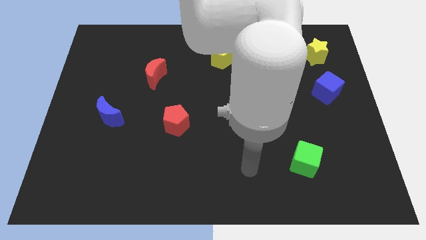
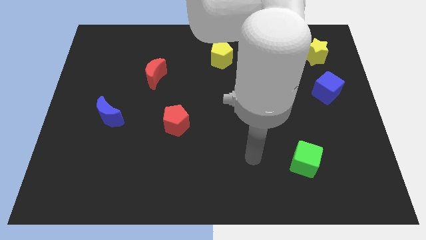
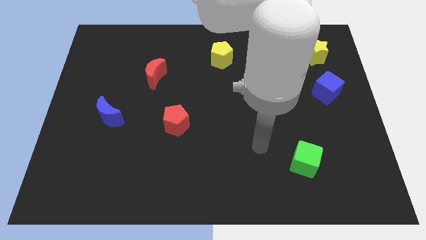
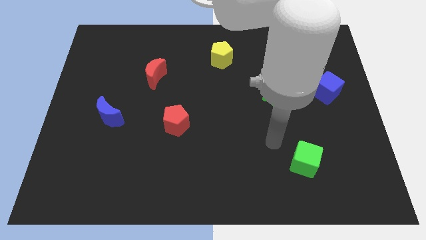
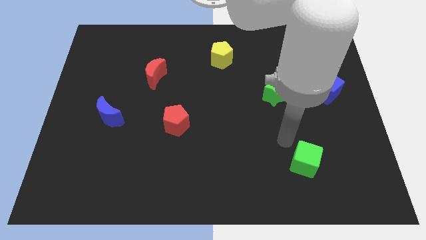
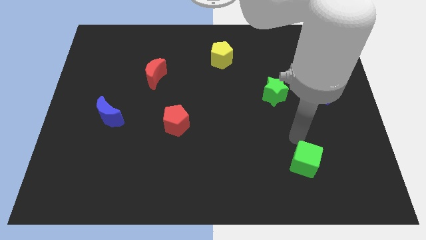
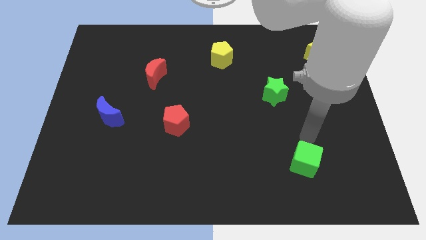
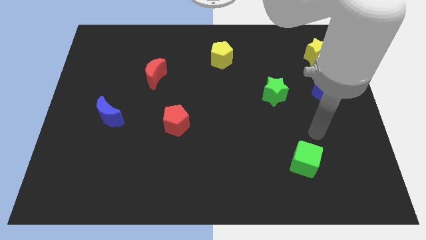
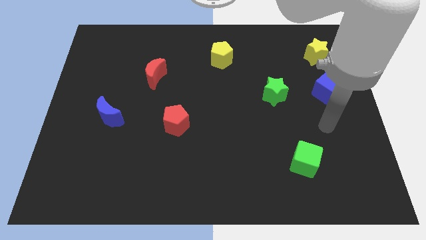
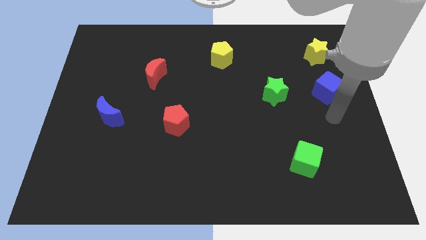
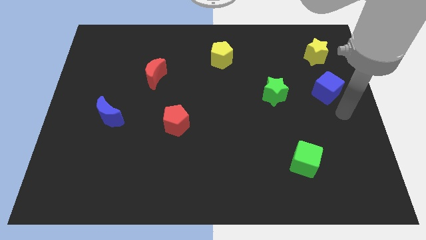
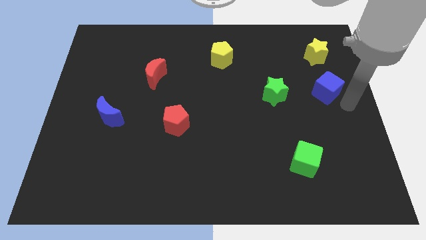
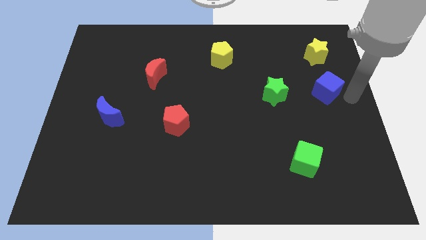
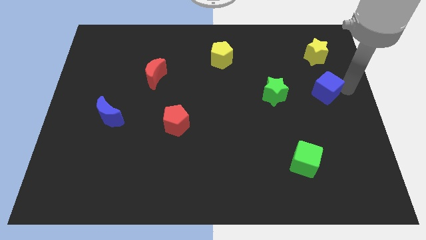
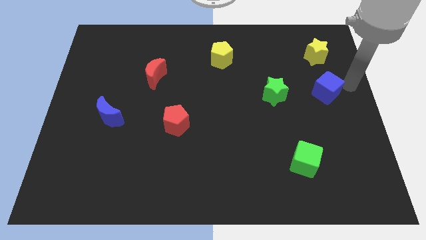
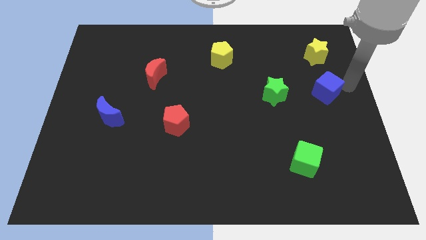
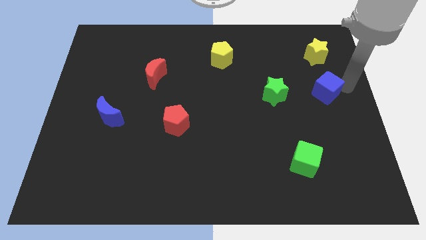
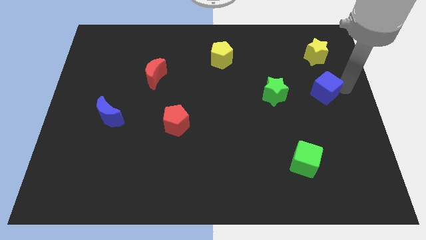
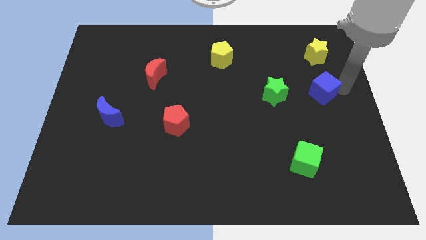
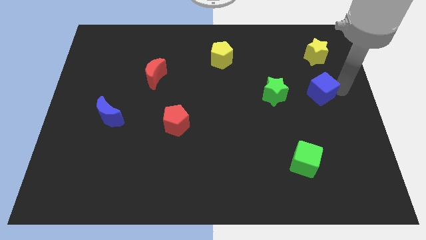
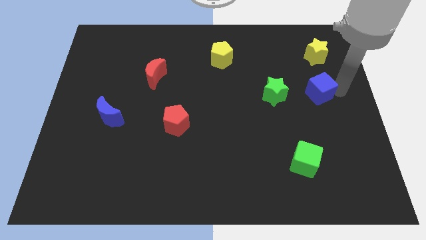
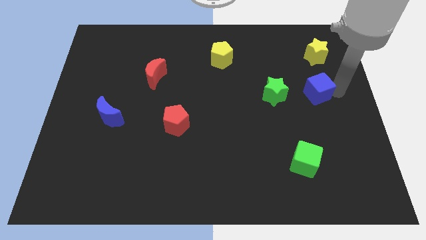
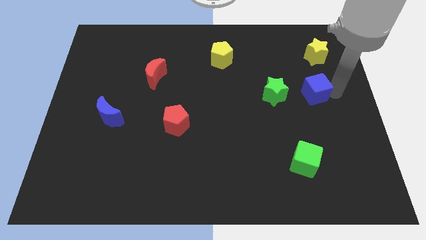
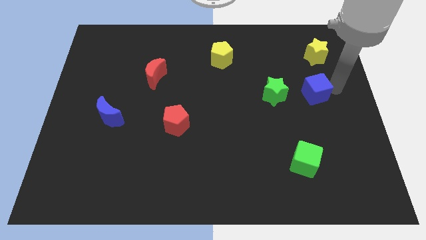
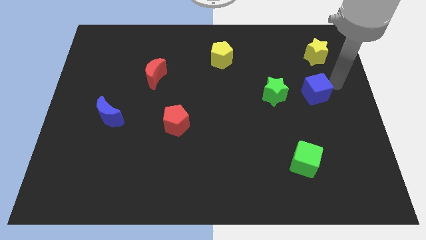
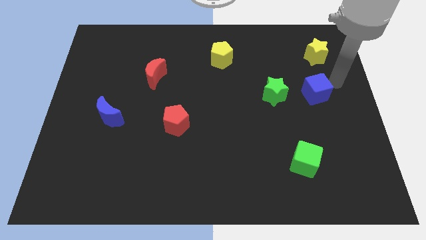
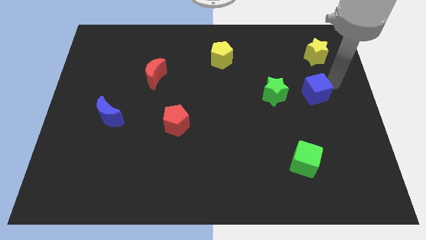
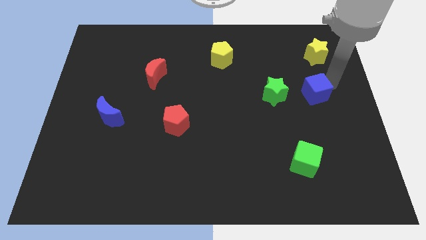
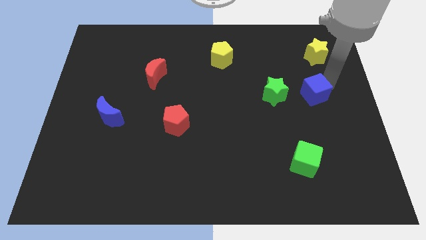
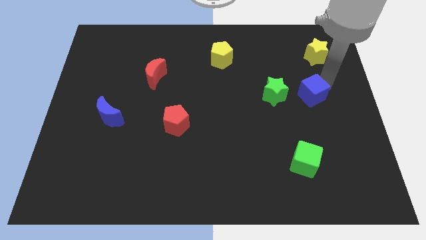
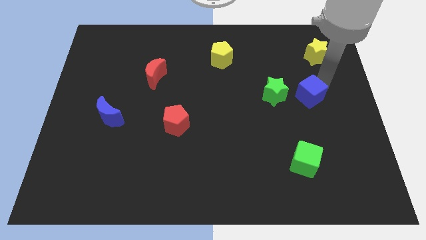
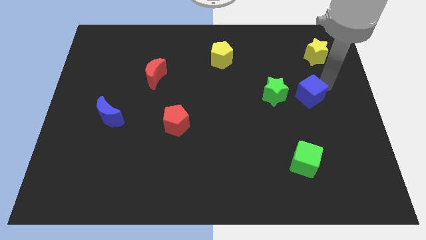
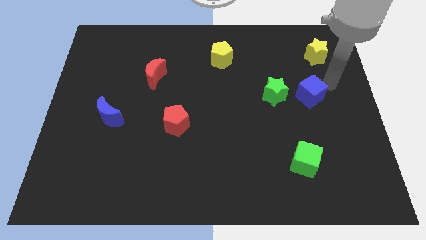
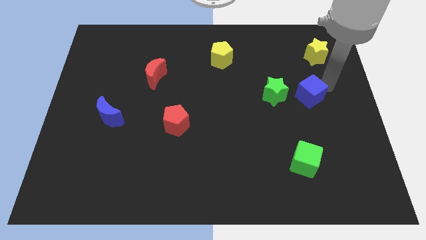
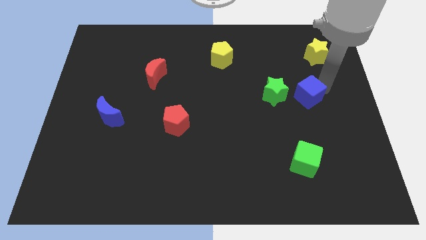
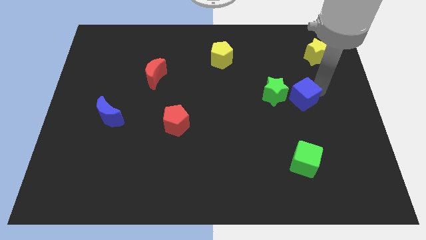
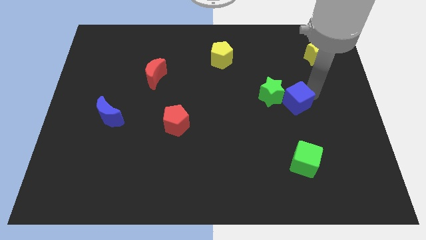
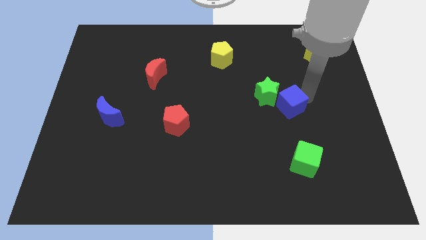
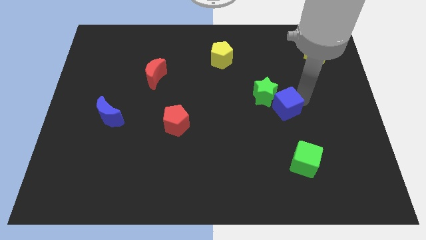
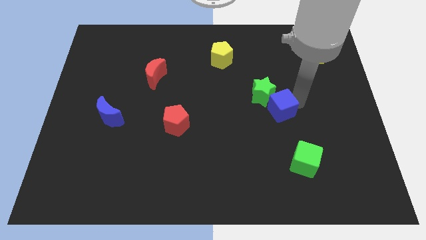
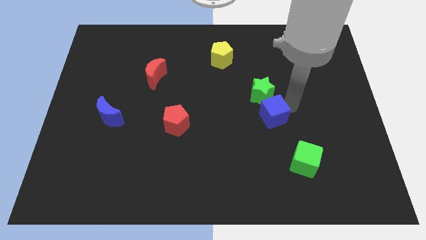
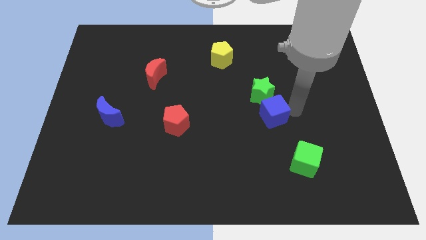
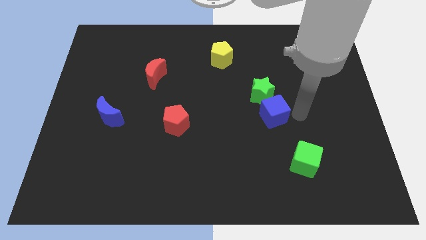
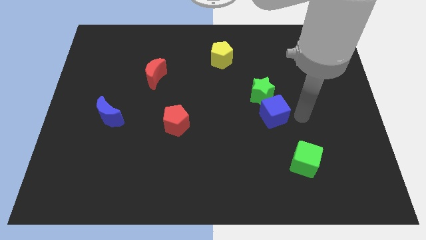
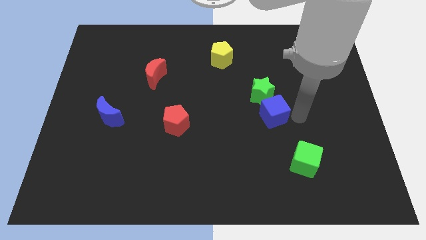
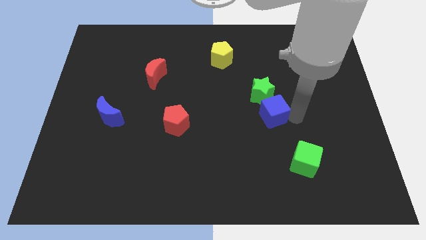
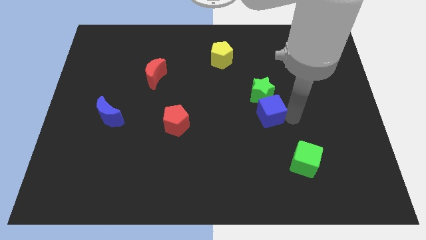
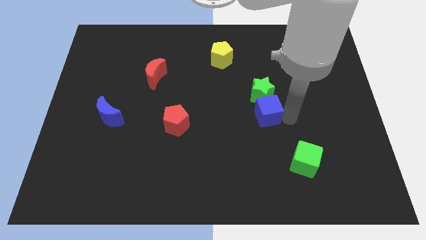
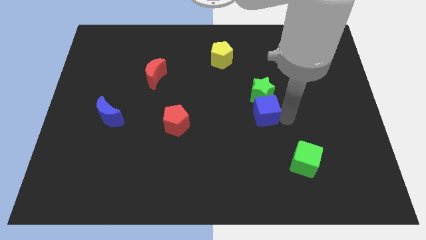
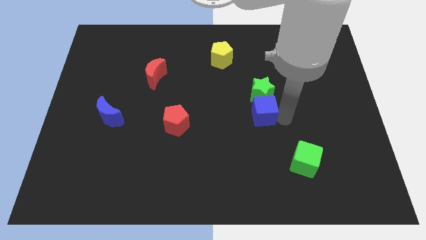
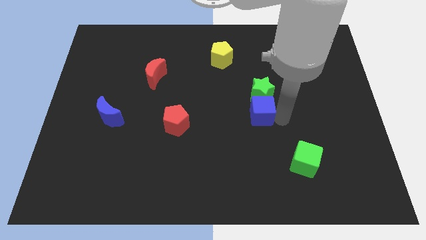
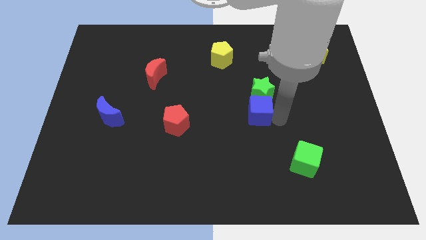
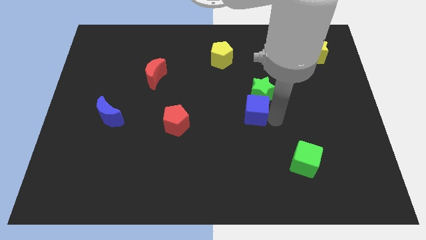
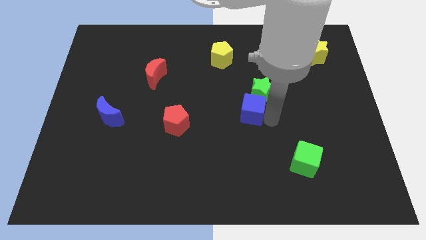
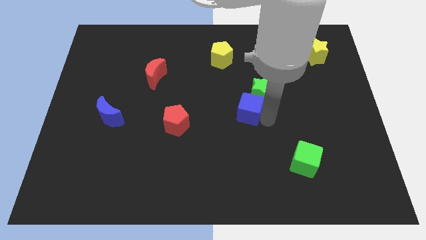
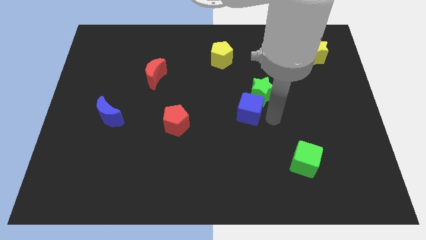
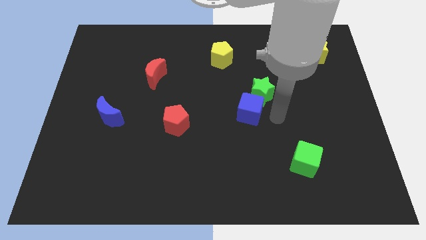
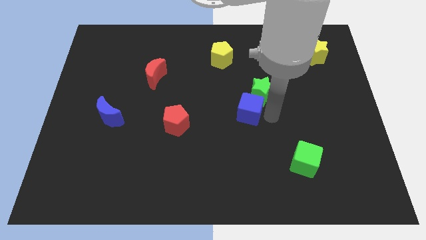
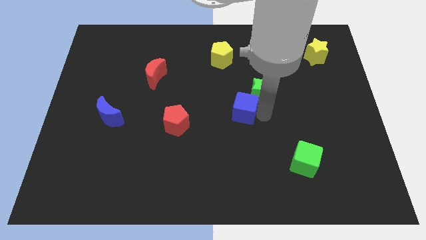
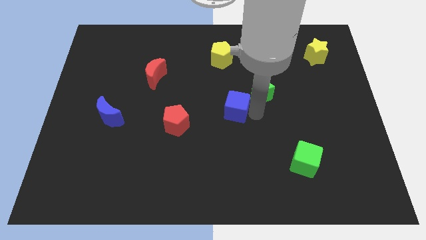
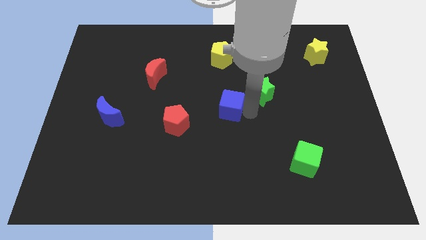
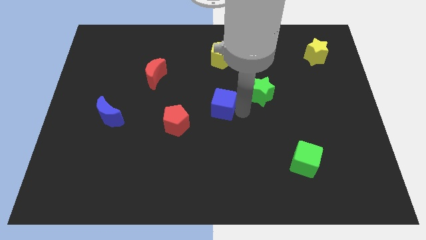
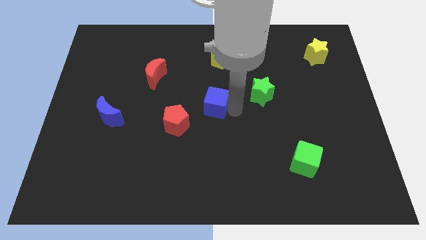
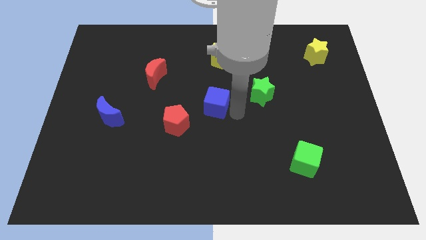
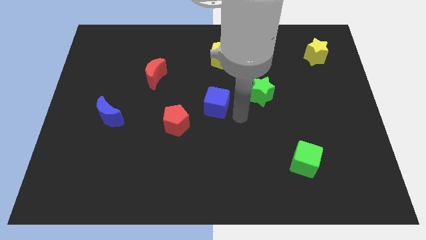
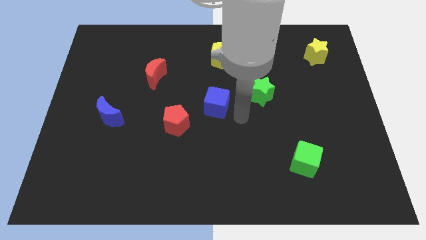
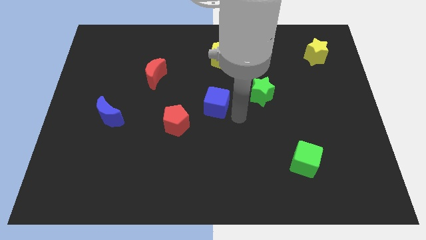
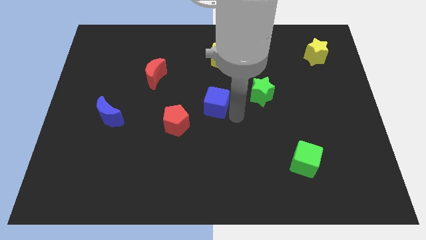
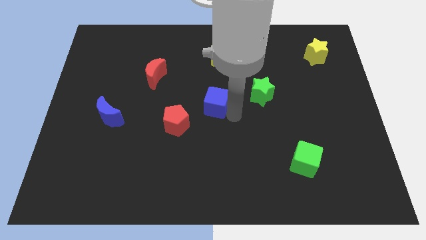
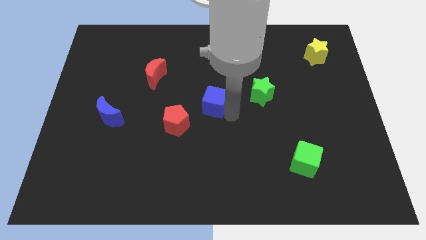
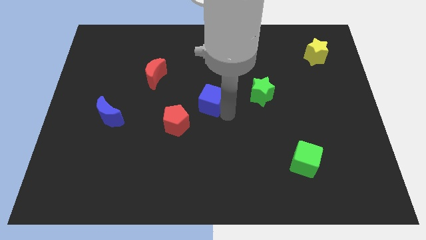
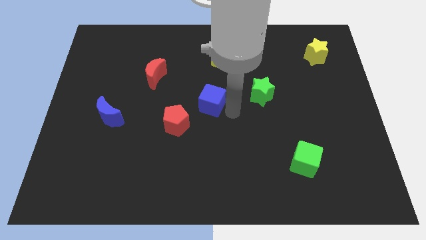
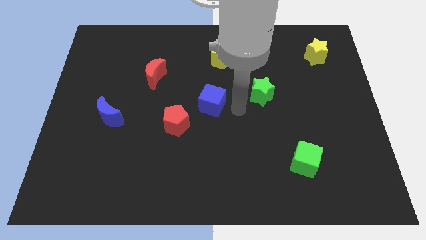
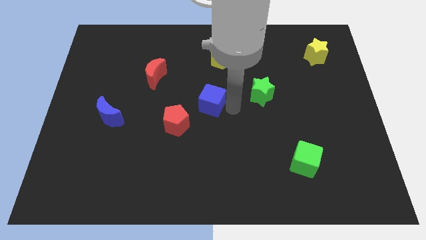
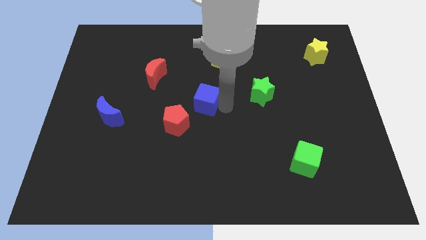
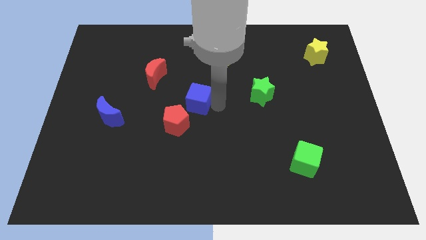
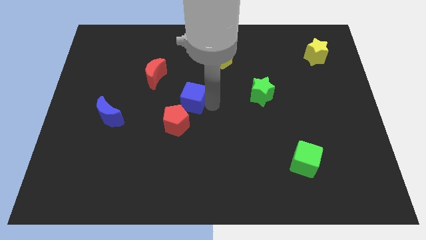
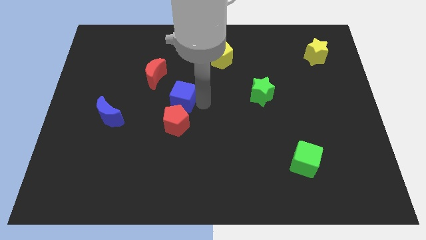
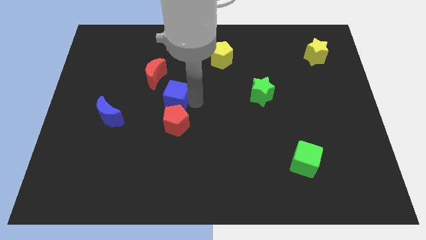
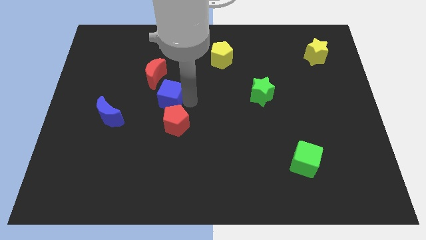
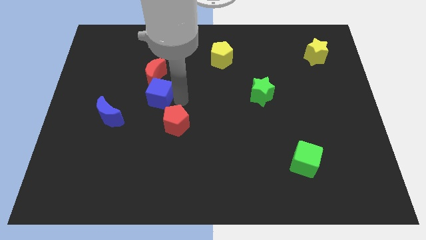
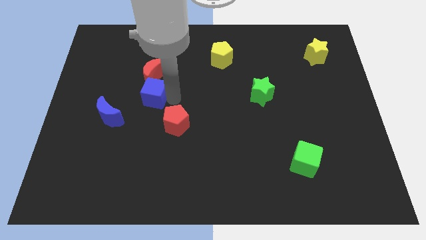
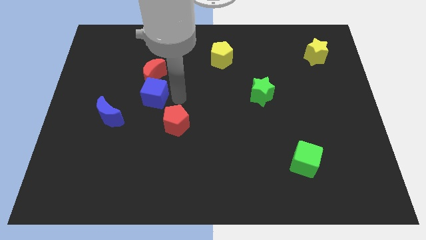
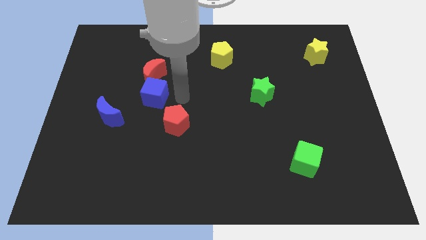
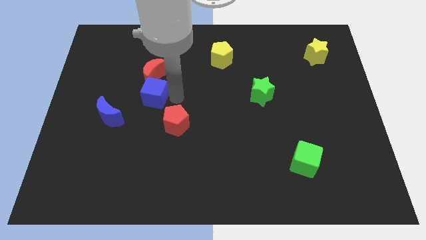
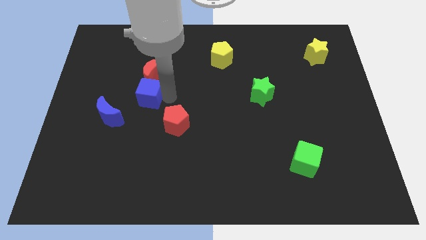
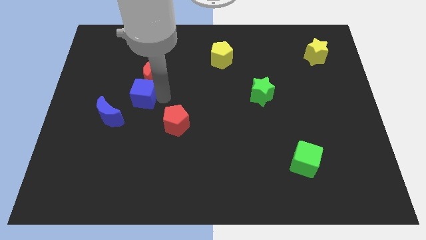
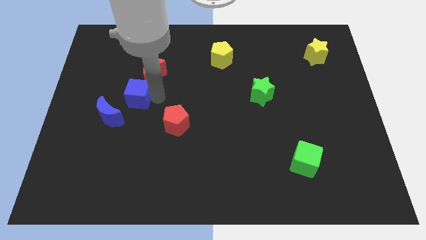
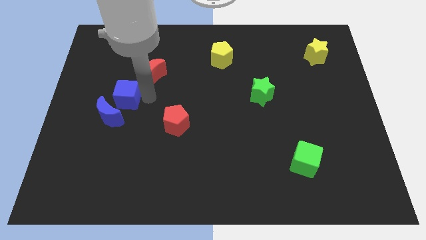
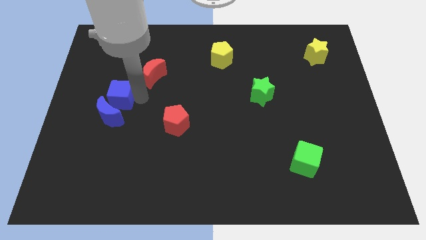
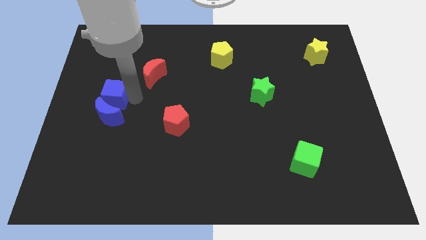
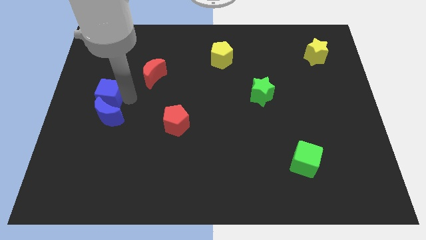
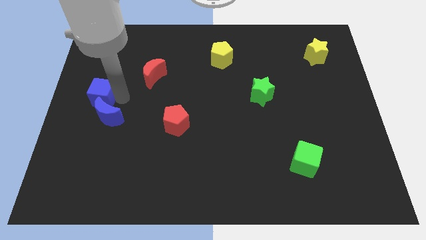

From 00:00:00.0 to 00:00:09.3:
put the blue cube to the left side of the board
